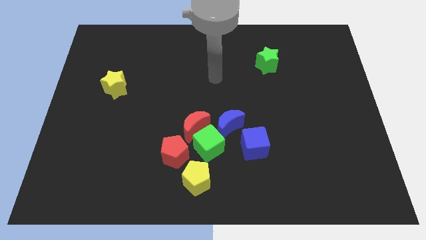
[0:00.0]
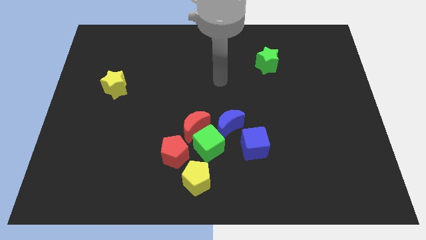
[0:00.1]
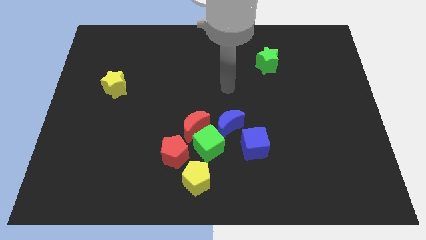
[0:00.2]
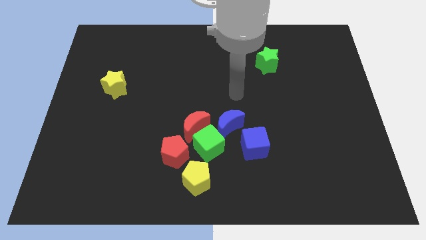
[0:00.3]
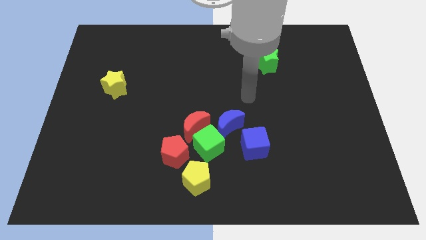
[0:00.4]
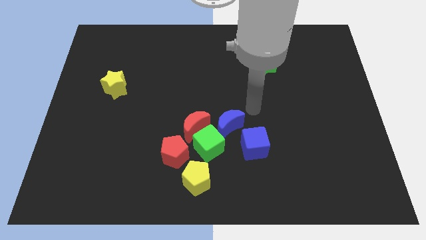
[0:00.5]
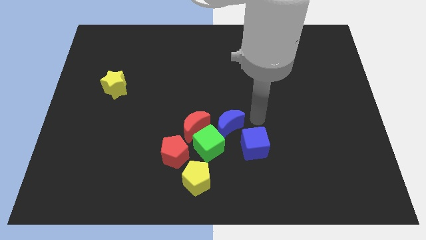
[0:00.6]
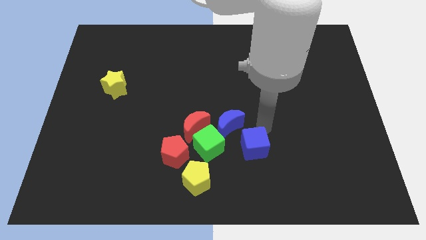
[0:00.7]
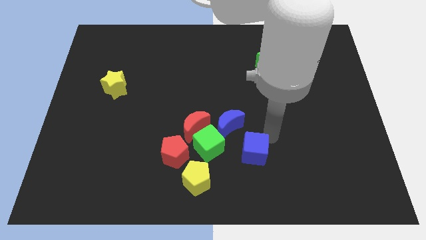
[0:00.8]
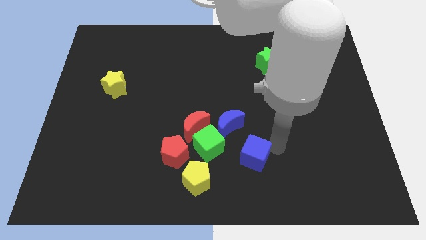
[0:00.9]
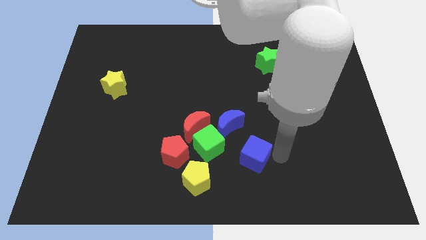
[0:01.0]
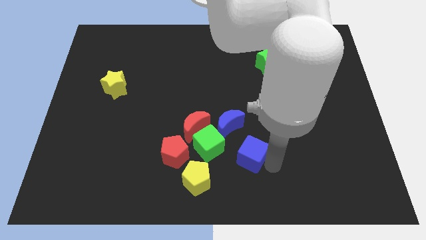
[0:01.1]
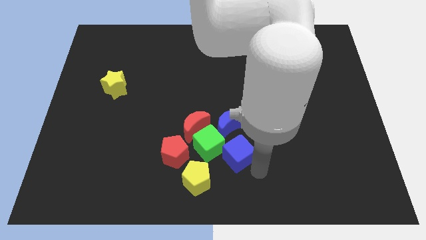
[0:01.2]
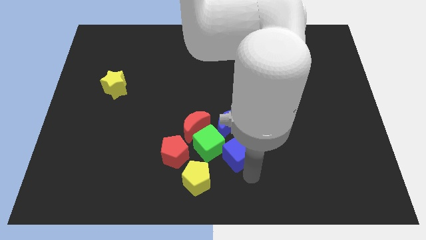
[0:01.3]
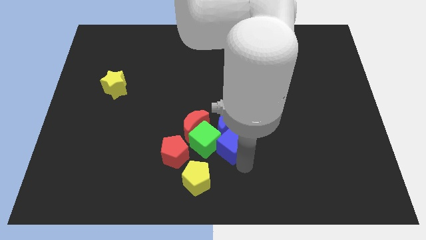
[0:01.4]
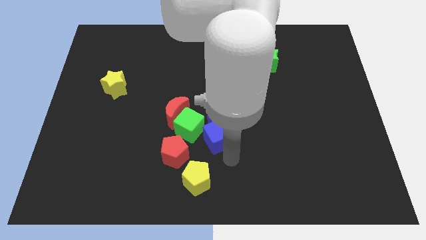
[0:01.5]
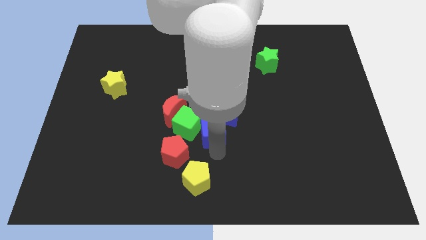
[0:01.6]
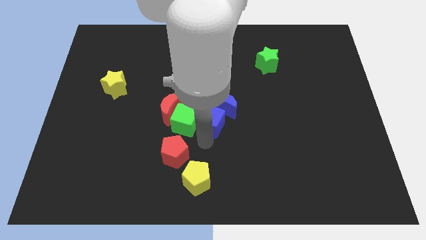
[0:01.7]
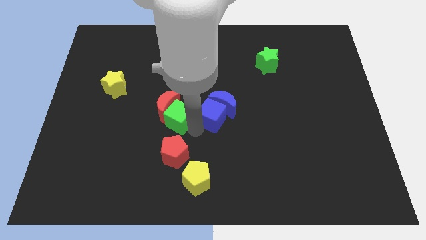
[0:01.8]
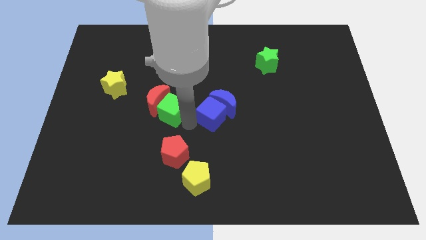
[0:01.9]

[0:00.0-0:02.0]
separate the red moon from the green cube, blue moon, and red pentagon

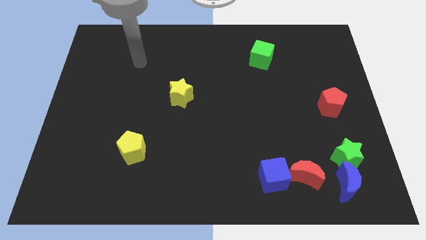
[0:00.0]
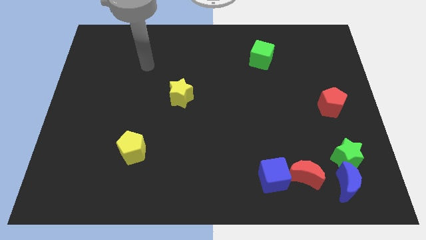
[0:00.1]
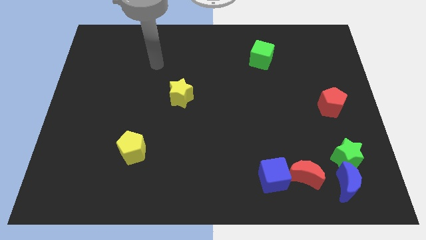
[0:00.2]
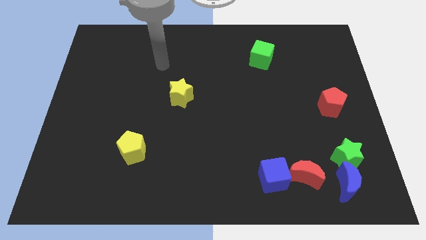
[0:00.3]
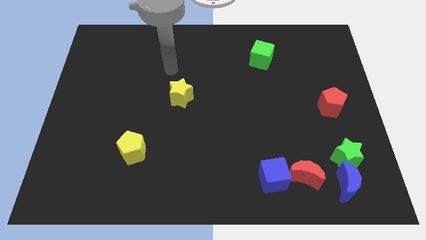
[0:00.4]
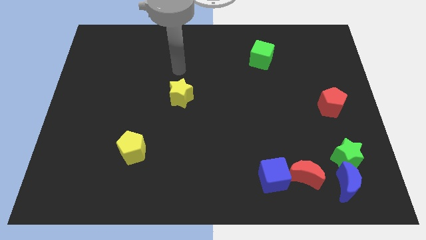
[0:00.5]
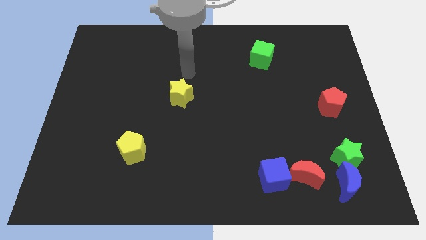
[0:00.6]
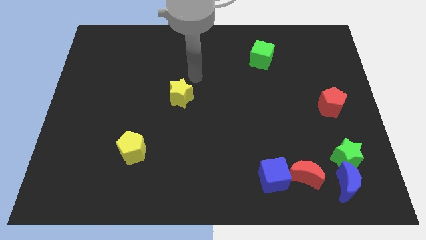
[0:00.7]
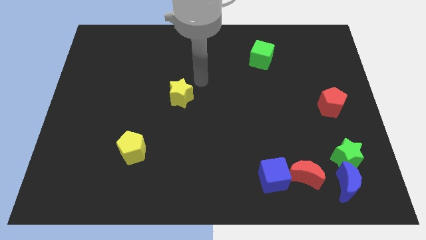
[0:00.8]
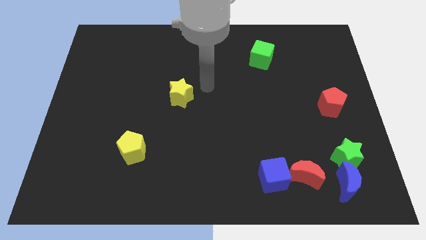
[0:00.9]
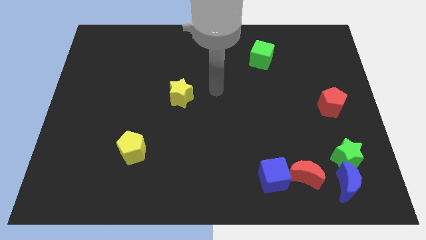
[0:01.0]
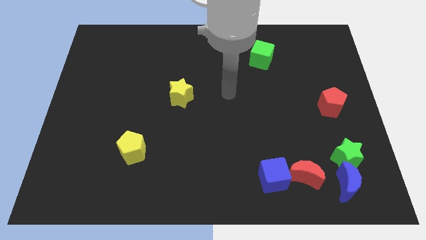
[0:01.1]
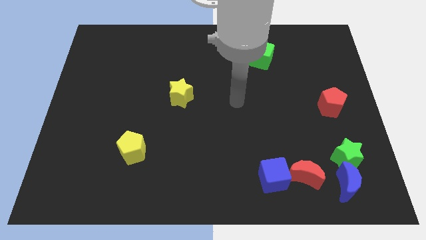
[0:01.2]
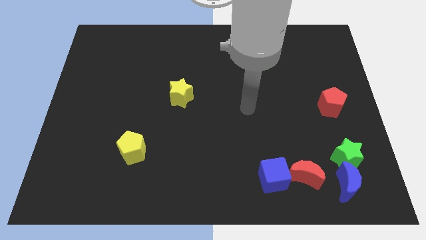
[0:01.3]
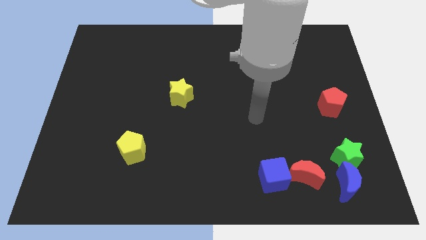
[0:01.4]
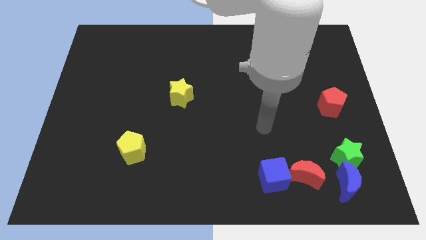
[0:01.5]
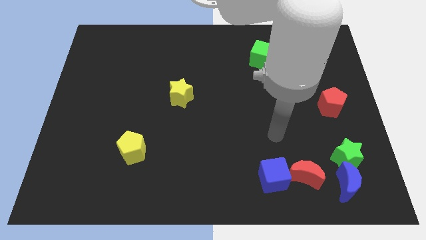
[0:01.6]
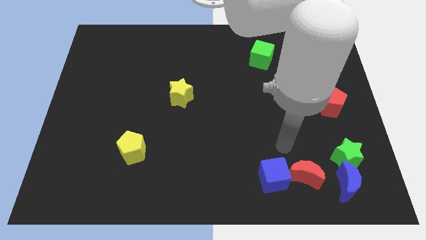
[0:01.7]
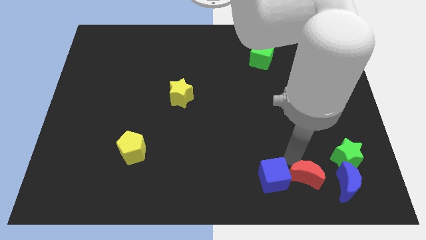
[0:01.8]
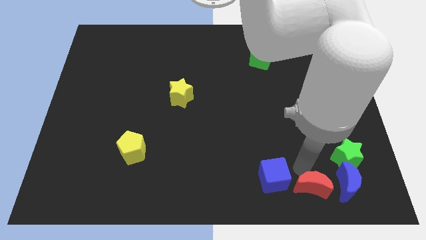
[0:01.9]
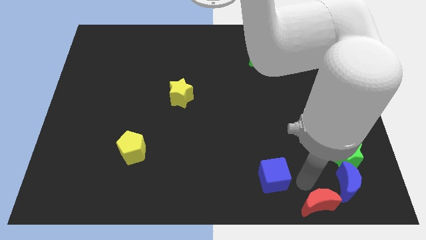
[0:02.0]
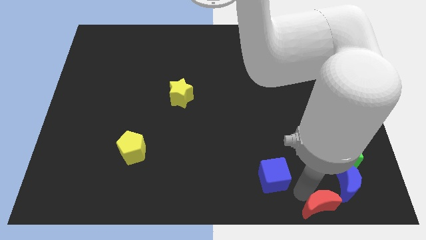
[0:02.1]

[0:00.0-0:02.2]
pull the blue cube apart from the red moon

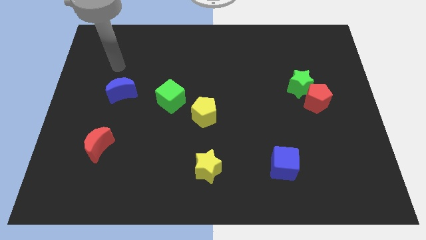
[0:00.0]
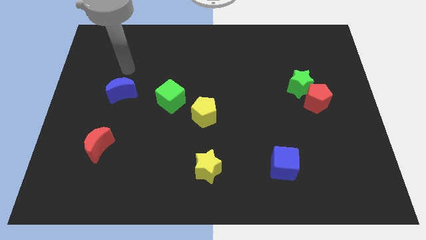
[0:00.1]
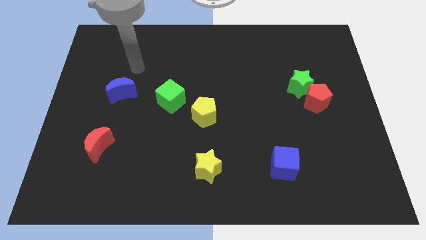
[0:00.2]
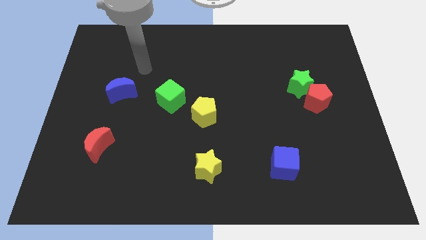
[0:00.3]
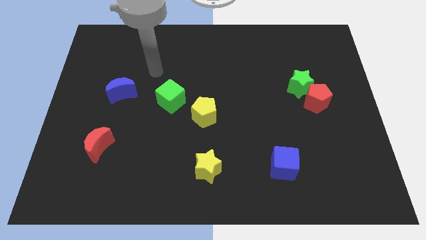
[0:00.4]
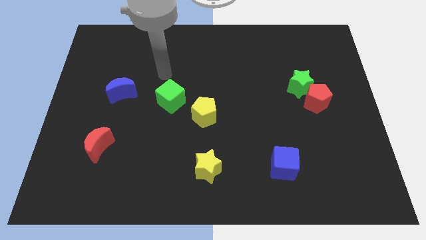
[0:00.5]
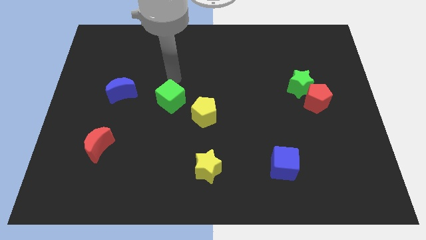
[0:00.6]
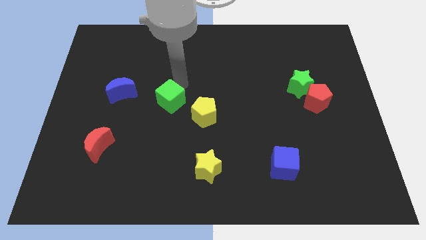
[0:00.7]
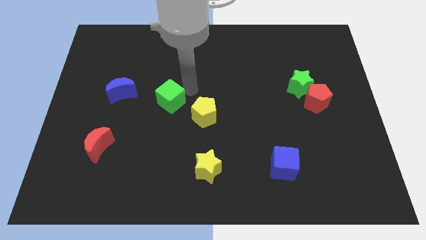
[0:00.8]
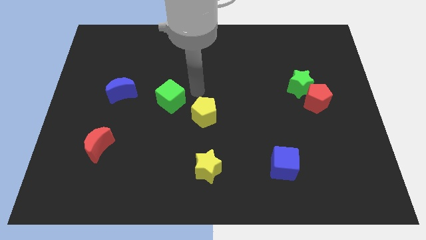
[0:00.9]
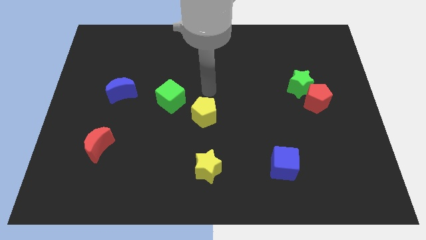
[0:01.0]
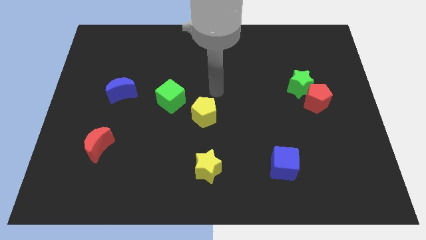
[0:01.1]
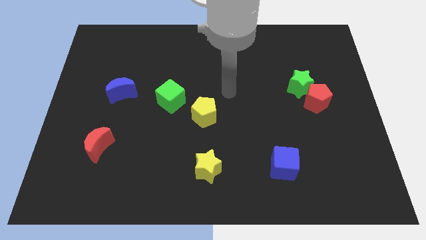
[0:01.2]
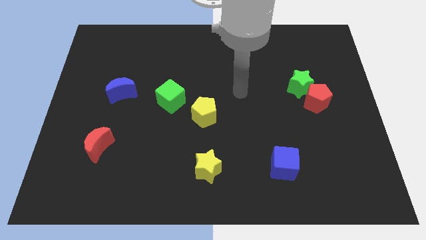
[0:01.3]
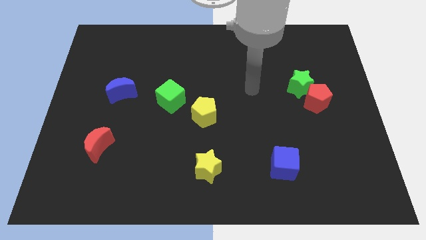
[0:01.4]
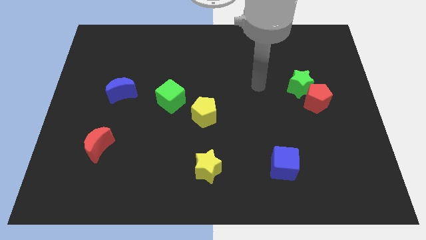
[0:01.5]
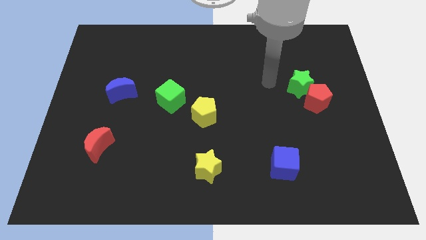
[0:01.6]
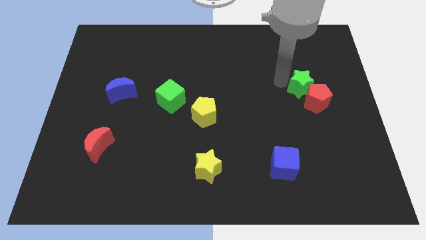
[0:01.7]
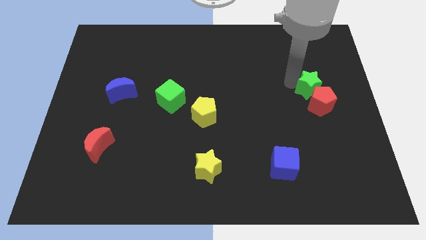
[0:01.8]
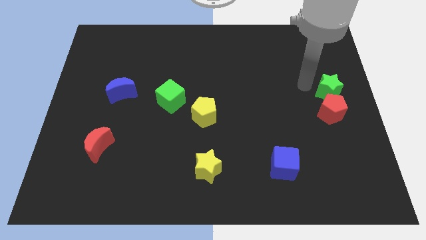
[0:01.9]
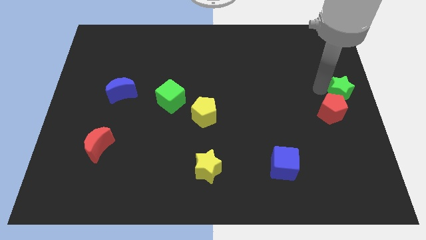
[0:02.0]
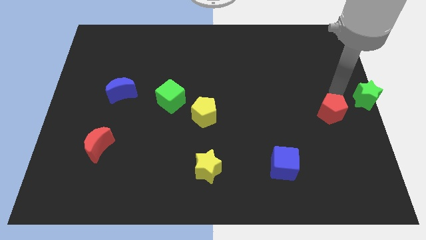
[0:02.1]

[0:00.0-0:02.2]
pull the red pentagon apart from the green star

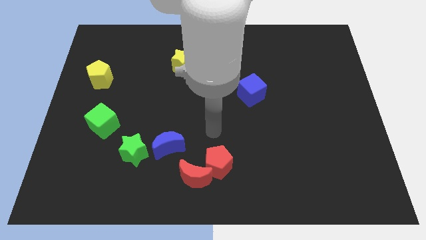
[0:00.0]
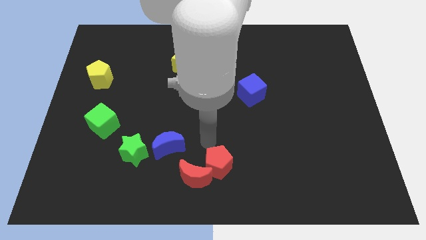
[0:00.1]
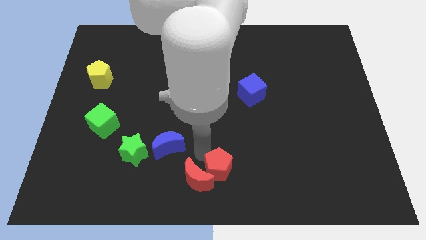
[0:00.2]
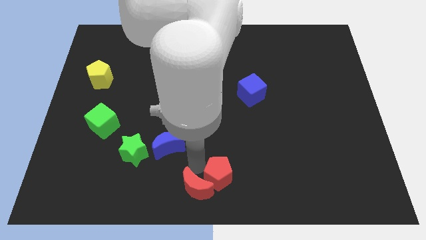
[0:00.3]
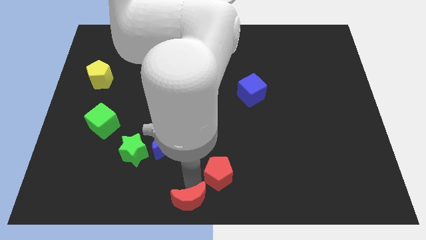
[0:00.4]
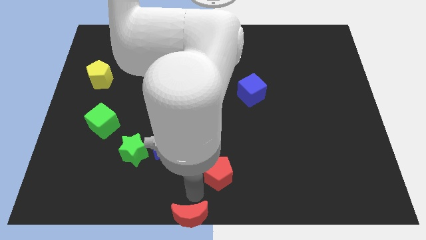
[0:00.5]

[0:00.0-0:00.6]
separate the red pentagon from the red moon

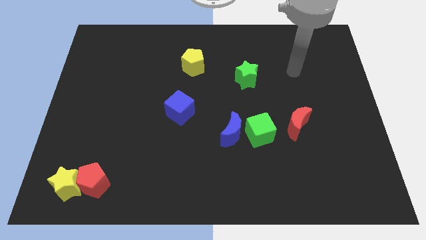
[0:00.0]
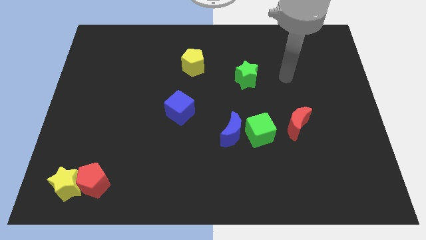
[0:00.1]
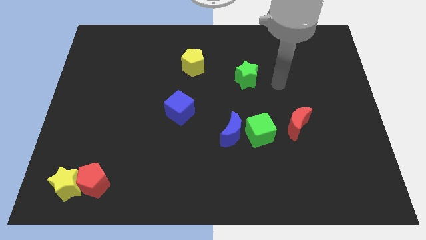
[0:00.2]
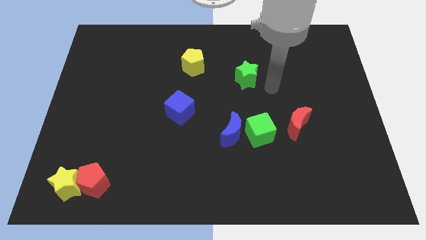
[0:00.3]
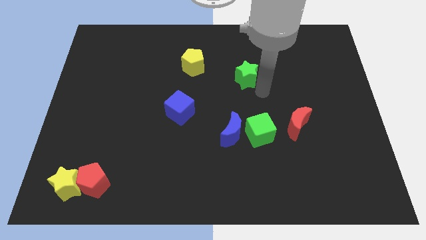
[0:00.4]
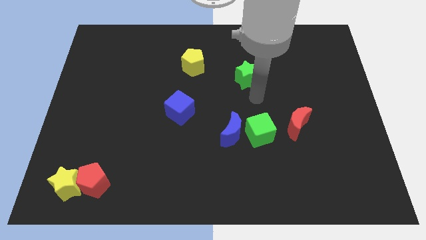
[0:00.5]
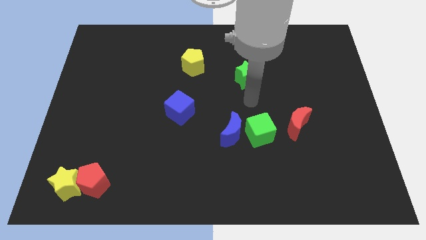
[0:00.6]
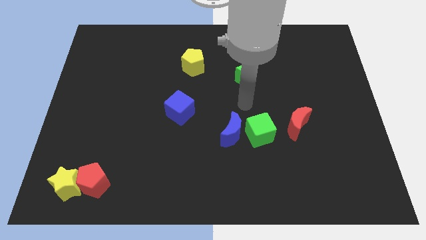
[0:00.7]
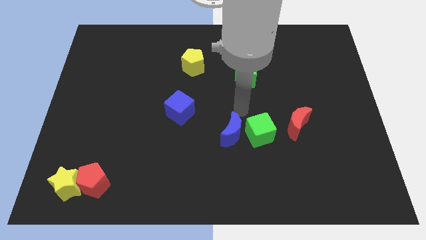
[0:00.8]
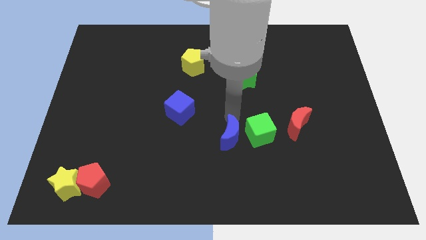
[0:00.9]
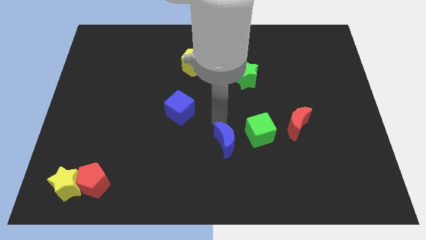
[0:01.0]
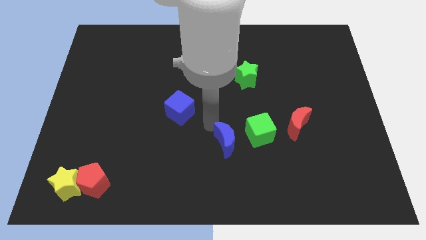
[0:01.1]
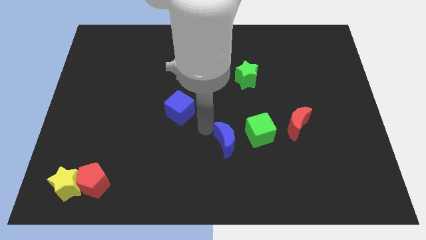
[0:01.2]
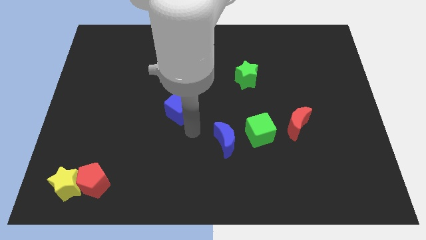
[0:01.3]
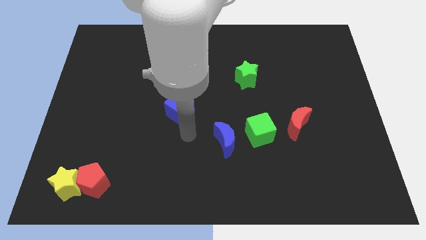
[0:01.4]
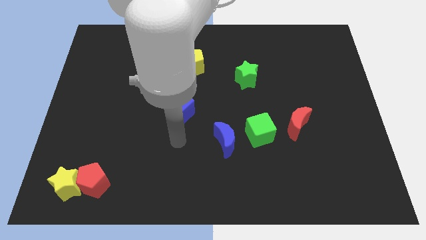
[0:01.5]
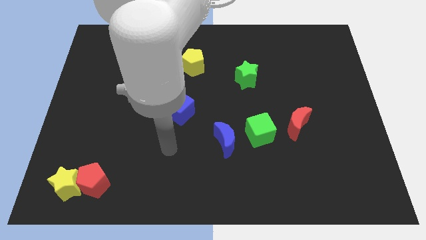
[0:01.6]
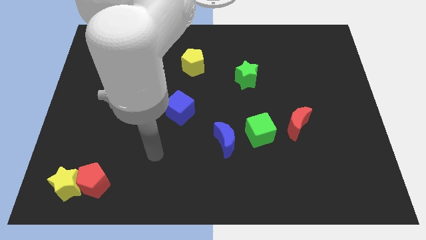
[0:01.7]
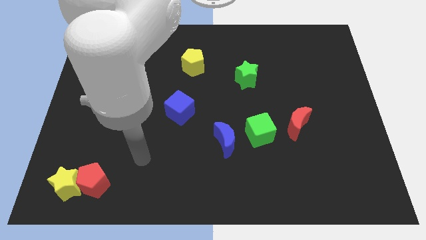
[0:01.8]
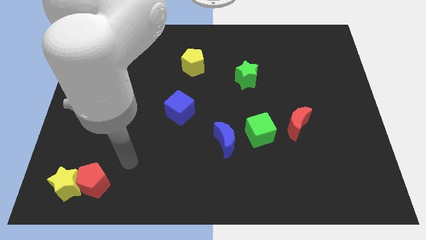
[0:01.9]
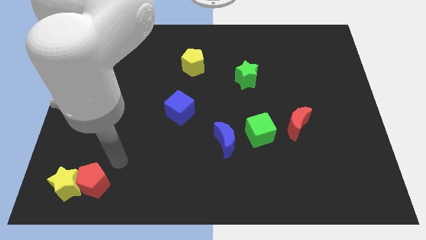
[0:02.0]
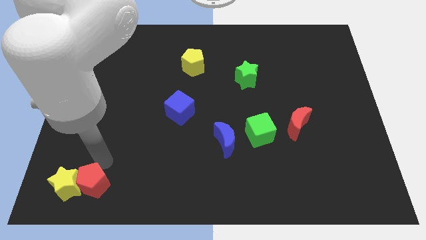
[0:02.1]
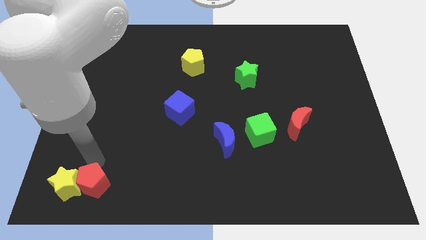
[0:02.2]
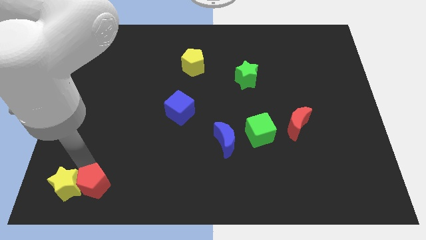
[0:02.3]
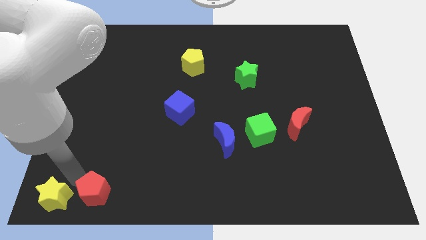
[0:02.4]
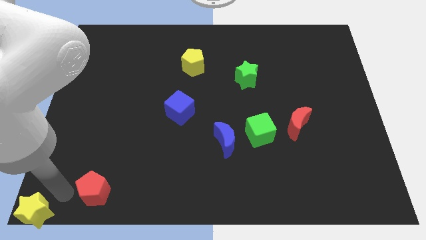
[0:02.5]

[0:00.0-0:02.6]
pull the red pentagon apart from the yellow star
